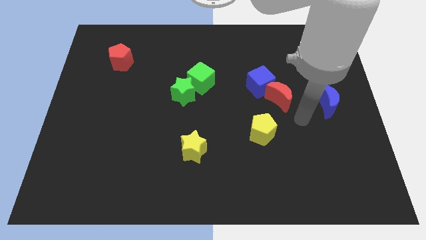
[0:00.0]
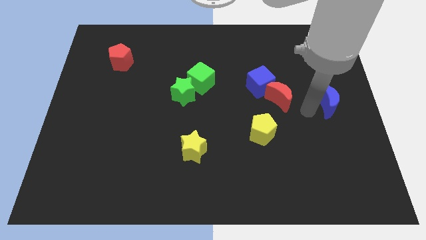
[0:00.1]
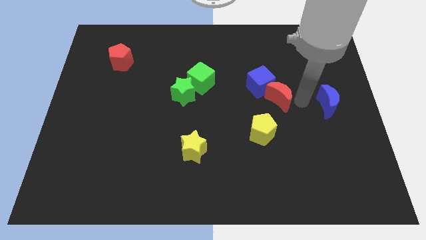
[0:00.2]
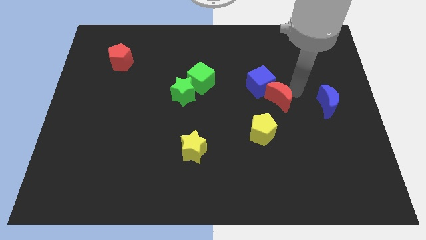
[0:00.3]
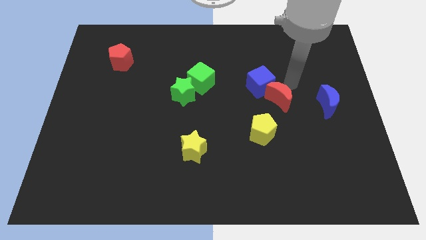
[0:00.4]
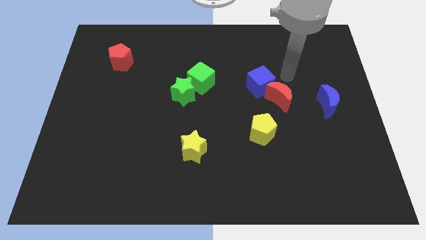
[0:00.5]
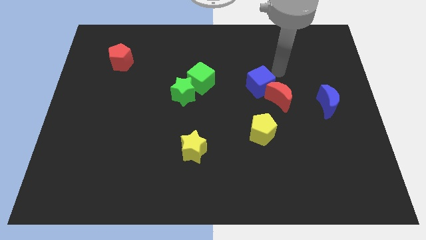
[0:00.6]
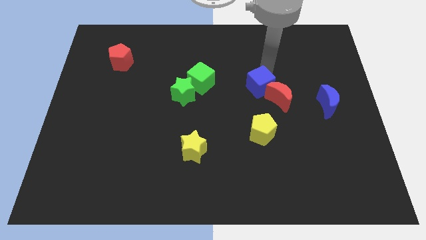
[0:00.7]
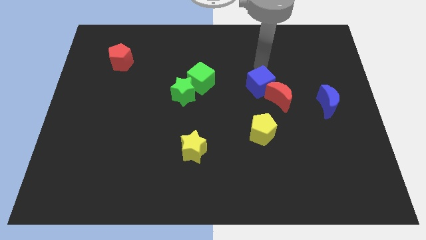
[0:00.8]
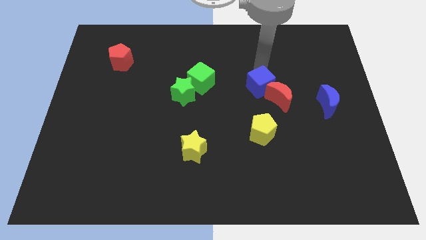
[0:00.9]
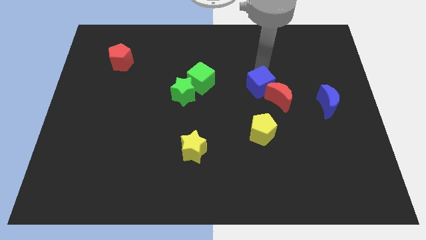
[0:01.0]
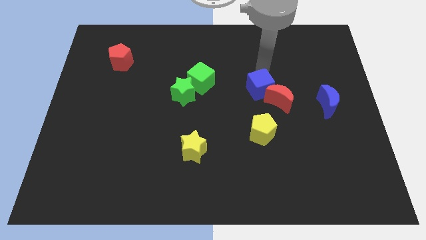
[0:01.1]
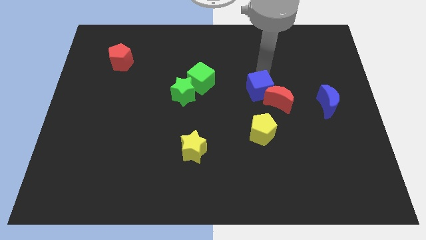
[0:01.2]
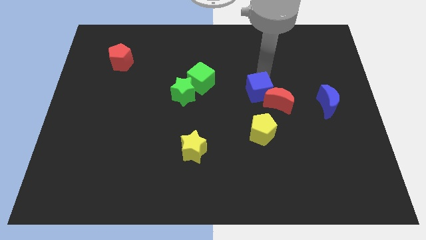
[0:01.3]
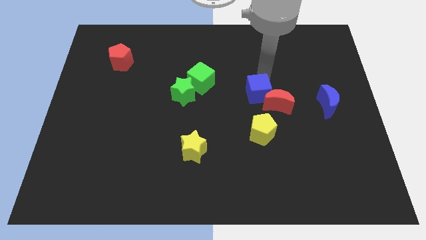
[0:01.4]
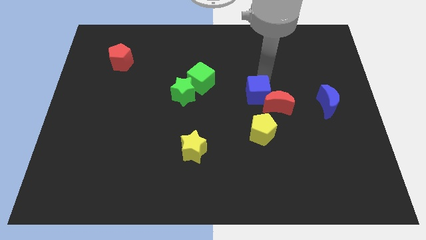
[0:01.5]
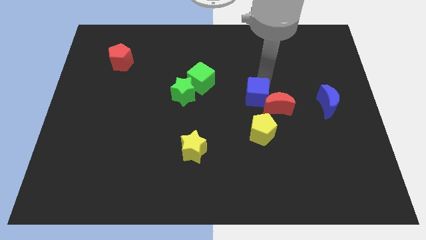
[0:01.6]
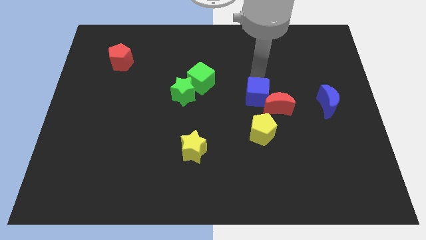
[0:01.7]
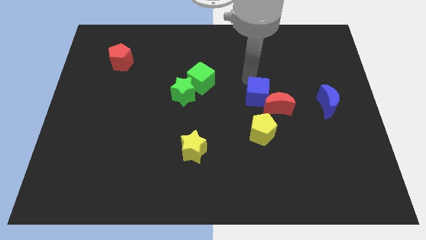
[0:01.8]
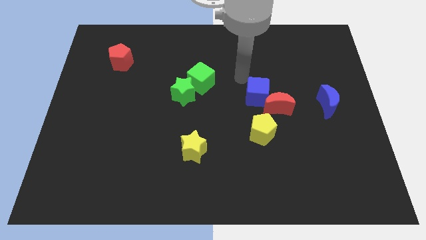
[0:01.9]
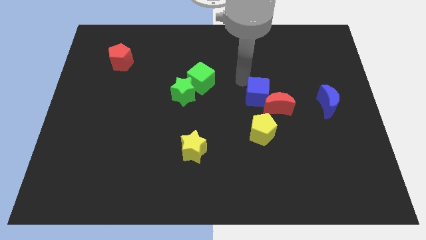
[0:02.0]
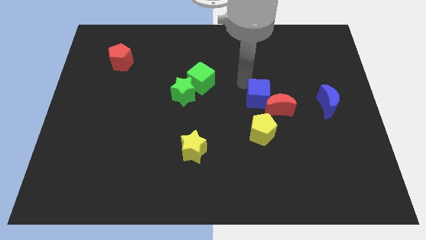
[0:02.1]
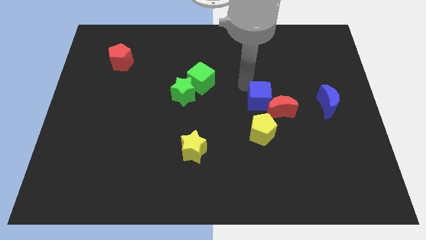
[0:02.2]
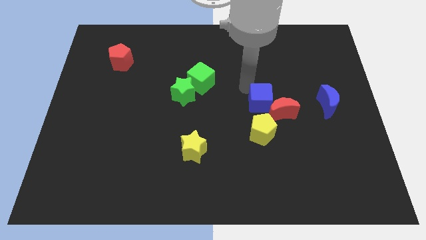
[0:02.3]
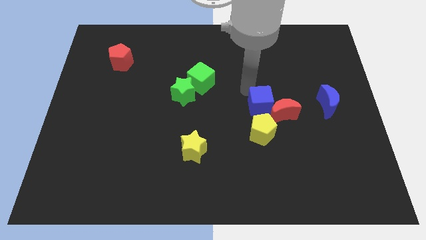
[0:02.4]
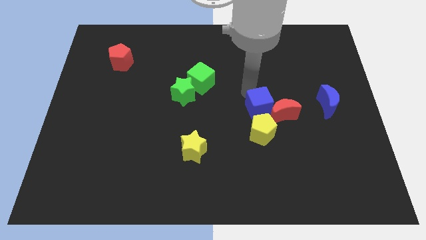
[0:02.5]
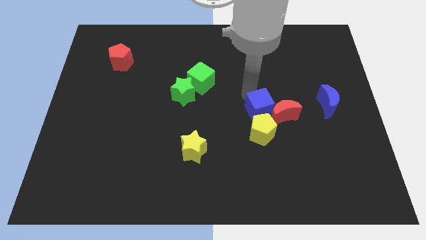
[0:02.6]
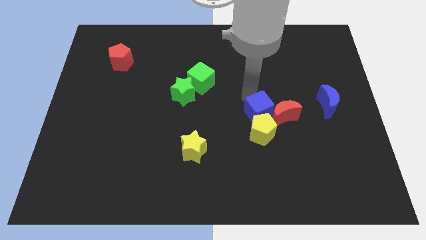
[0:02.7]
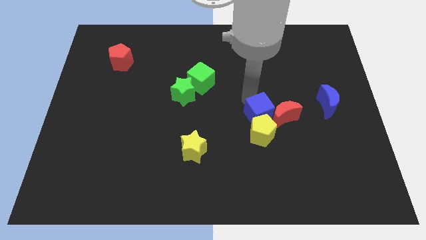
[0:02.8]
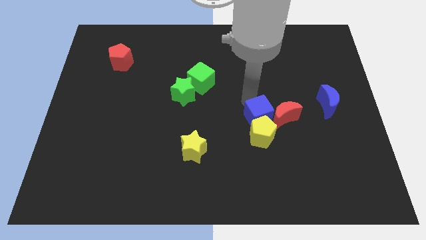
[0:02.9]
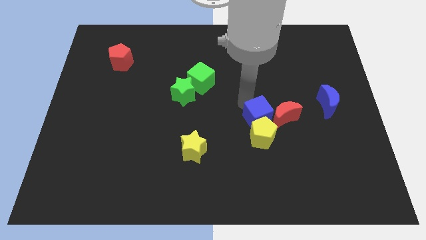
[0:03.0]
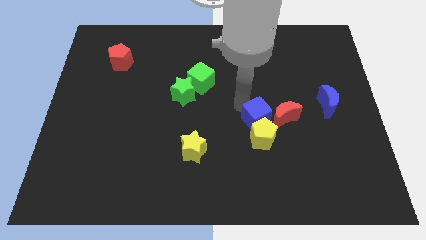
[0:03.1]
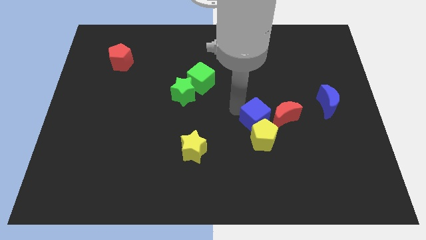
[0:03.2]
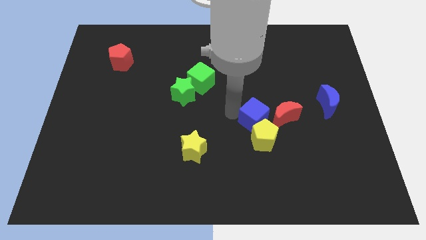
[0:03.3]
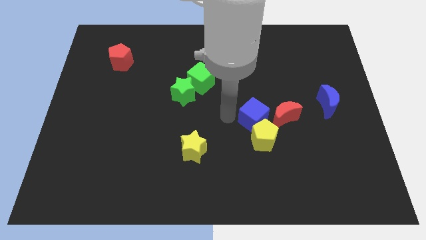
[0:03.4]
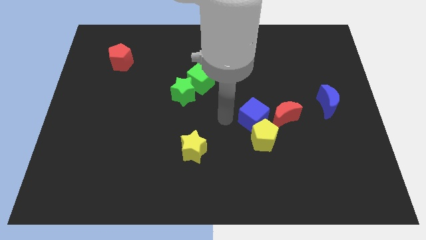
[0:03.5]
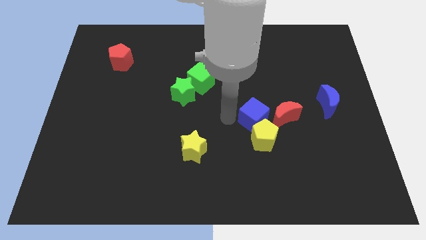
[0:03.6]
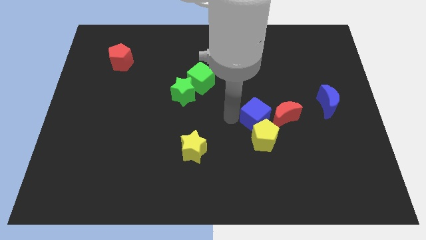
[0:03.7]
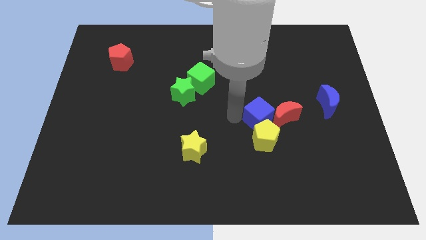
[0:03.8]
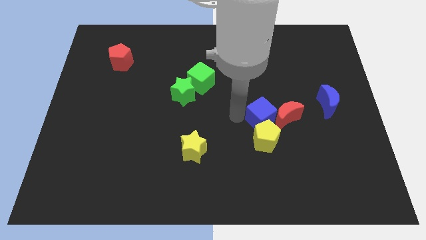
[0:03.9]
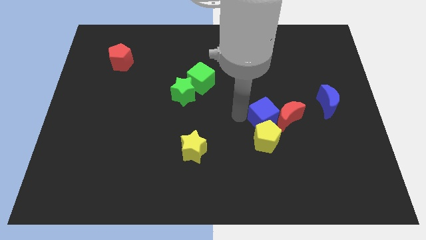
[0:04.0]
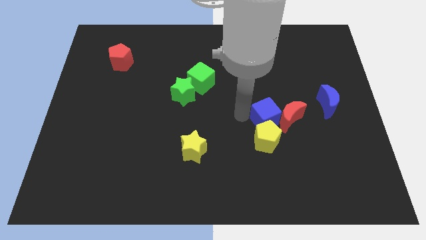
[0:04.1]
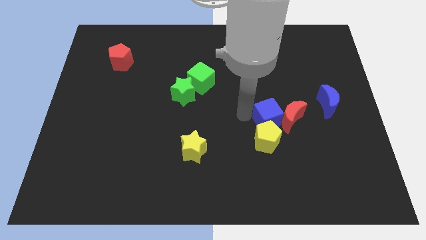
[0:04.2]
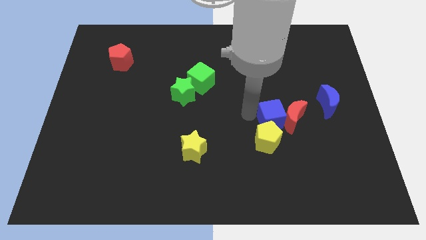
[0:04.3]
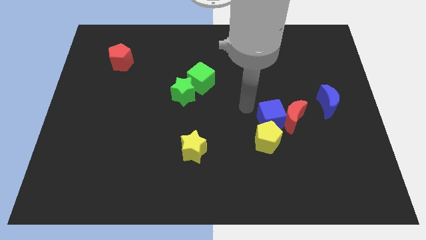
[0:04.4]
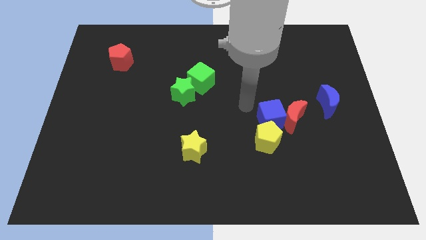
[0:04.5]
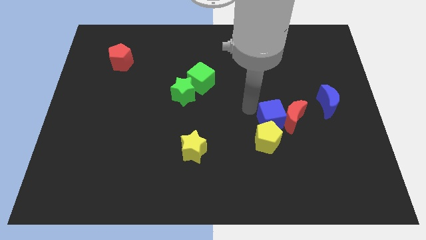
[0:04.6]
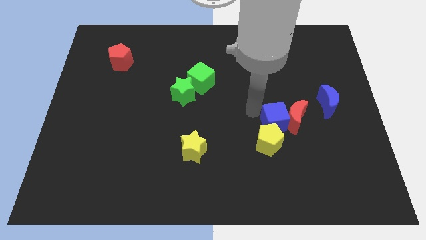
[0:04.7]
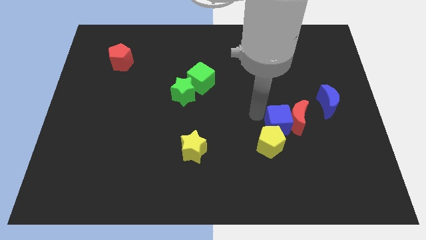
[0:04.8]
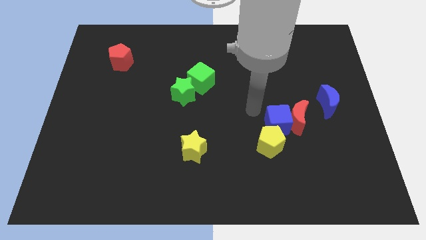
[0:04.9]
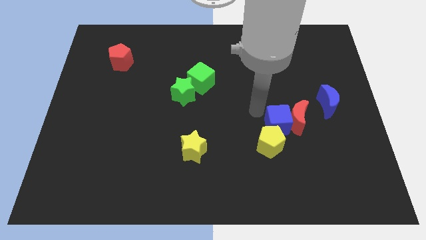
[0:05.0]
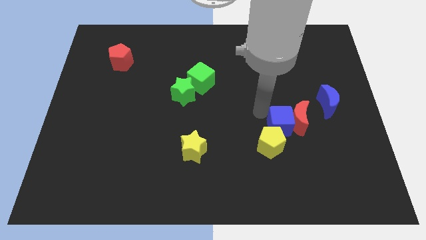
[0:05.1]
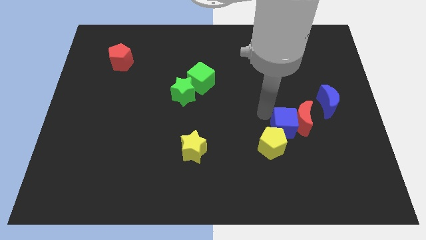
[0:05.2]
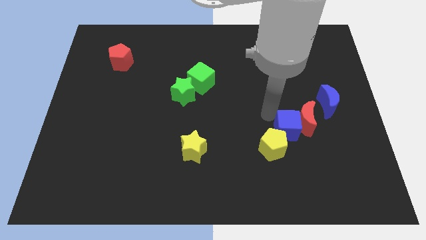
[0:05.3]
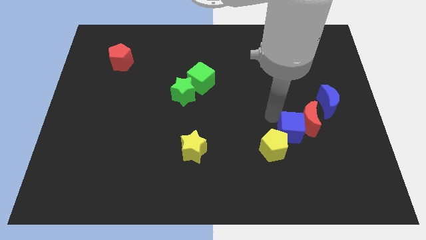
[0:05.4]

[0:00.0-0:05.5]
slide the blue cube right of the yellow pentagon

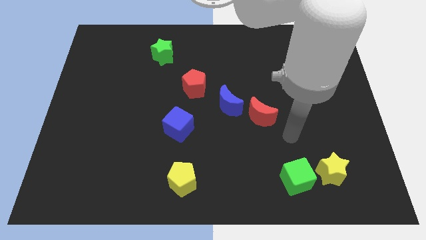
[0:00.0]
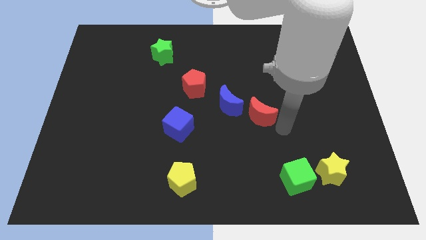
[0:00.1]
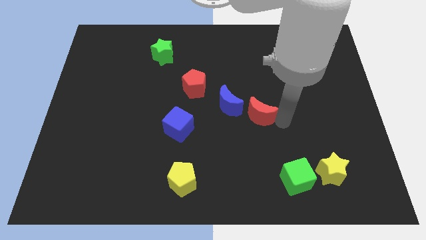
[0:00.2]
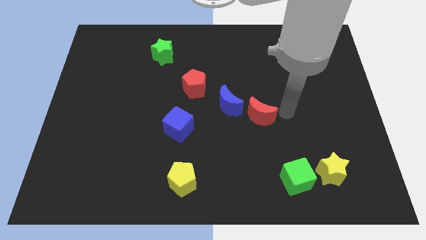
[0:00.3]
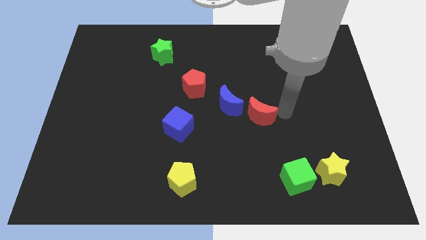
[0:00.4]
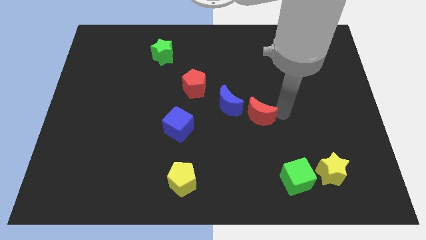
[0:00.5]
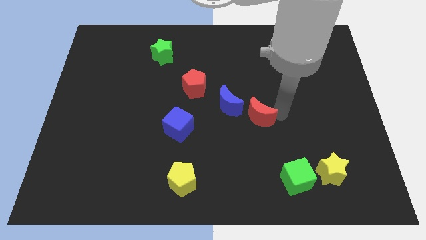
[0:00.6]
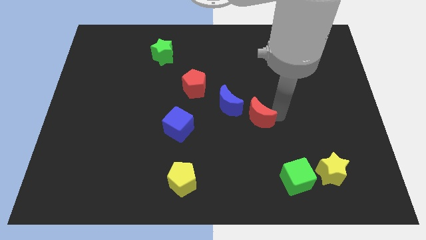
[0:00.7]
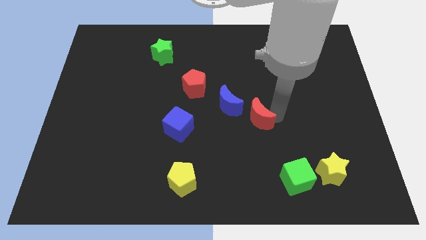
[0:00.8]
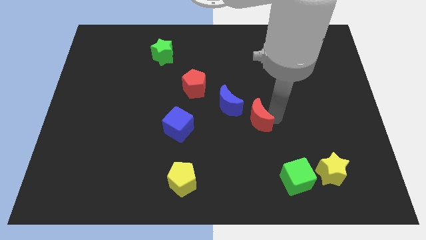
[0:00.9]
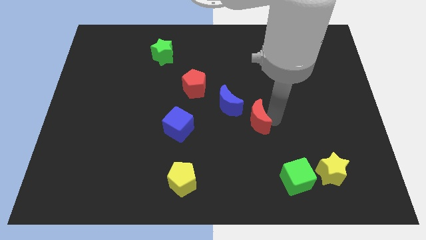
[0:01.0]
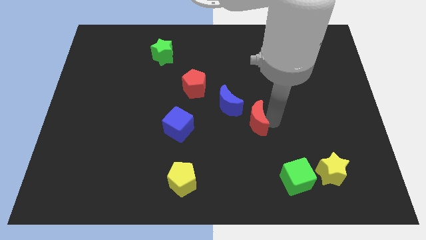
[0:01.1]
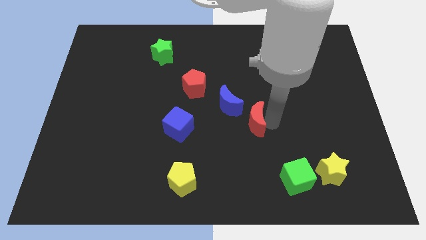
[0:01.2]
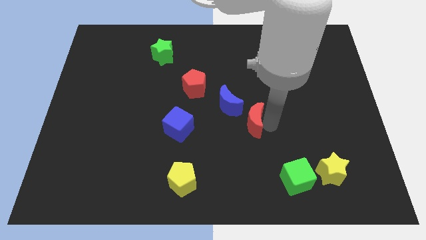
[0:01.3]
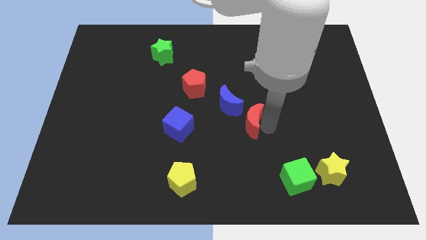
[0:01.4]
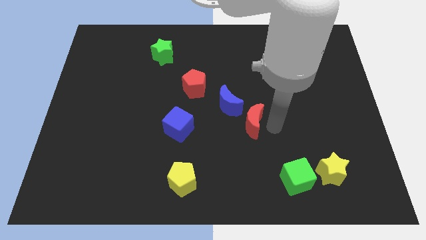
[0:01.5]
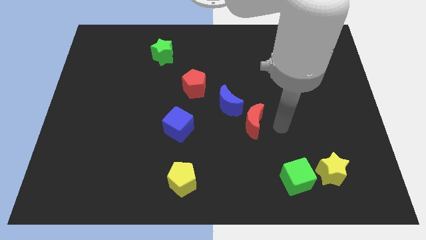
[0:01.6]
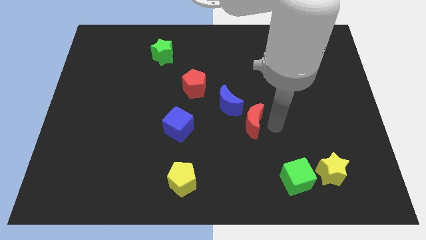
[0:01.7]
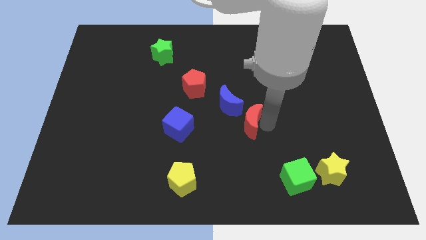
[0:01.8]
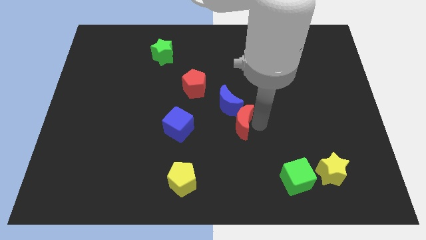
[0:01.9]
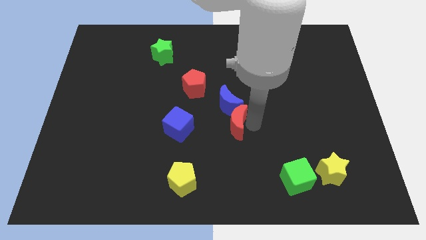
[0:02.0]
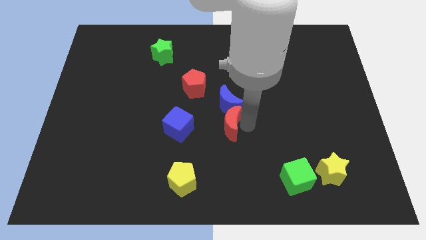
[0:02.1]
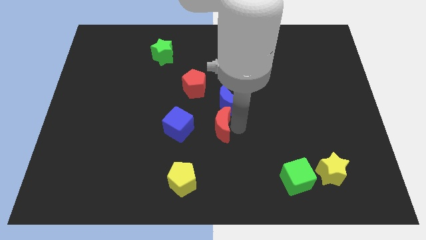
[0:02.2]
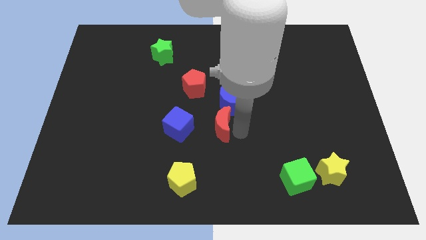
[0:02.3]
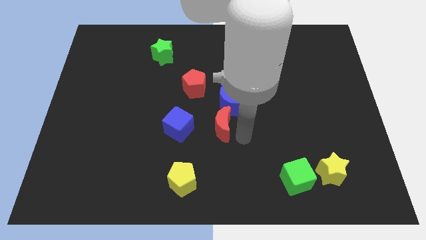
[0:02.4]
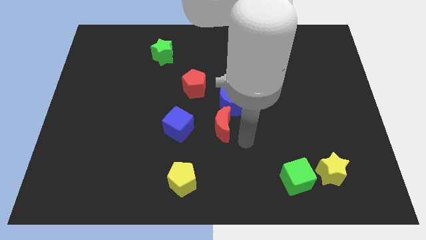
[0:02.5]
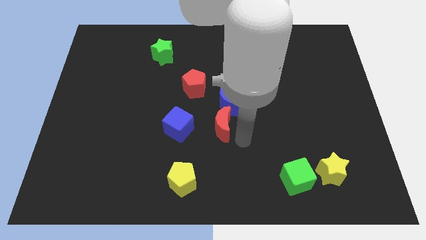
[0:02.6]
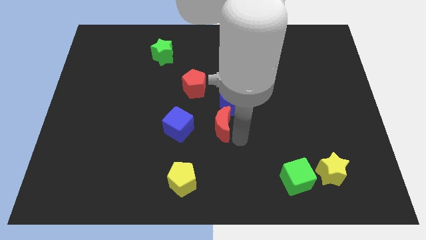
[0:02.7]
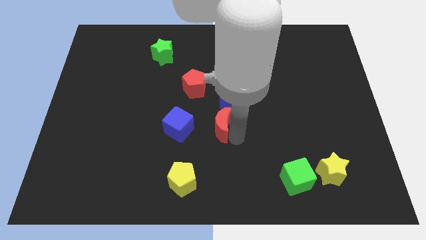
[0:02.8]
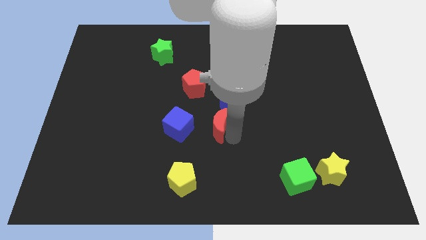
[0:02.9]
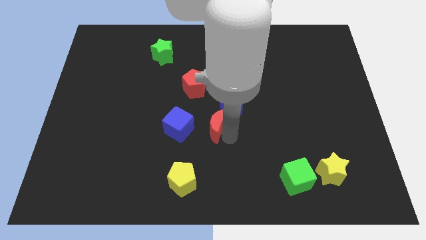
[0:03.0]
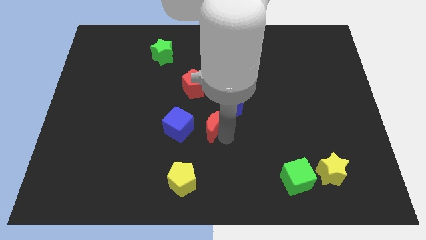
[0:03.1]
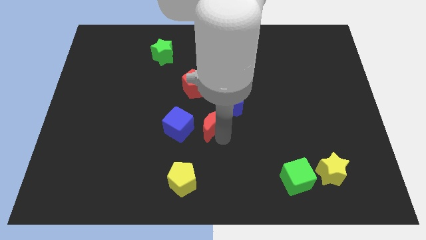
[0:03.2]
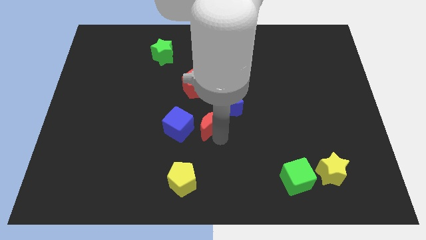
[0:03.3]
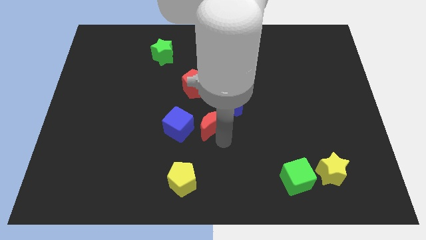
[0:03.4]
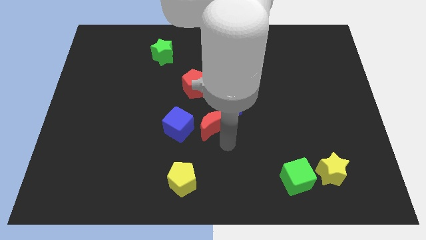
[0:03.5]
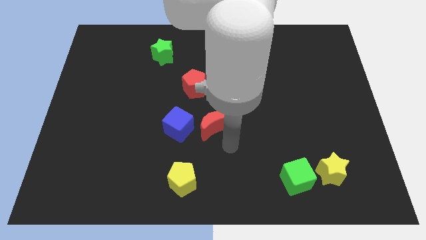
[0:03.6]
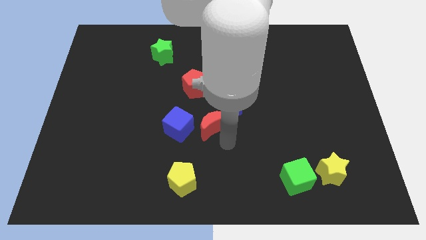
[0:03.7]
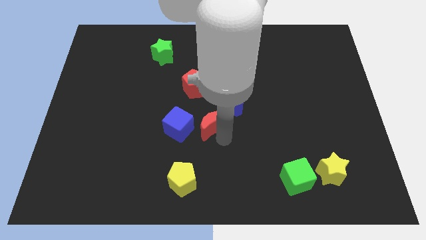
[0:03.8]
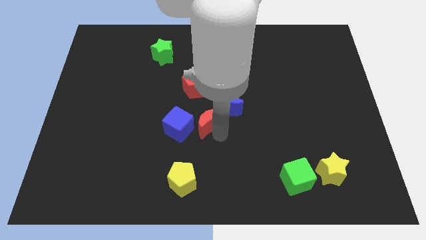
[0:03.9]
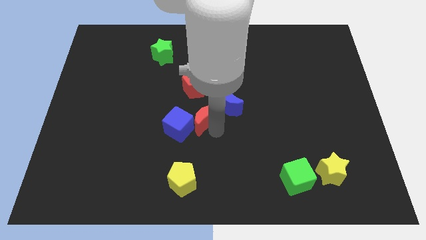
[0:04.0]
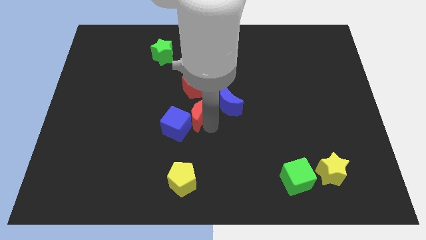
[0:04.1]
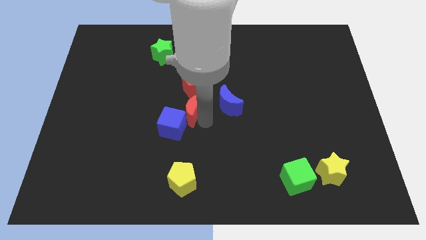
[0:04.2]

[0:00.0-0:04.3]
push the red moon to the top of the blue cube
